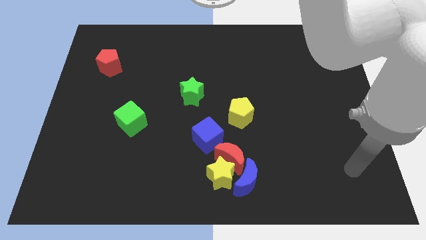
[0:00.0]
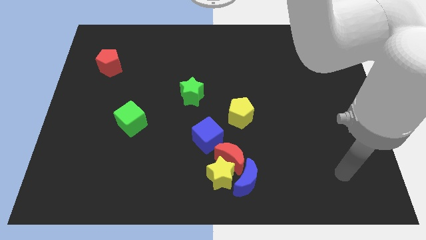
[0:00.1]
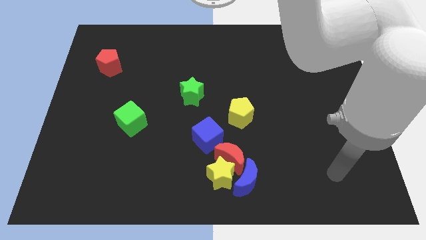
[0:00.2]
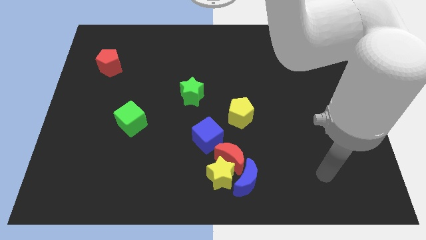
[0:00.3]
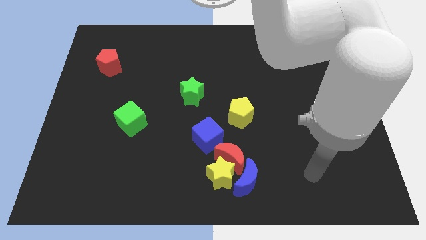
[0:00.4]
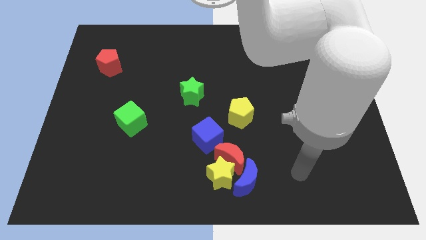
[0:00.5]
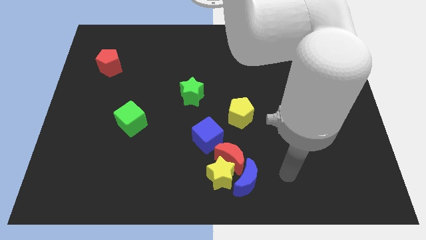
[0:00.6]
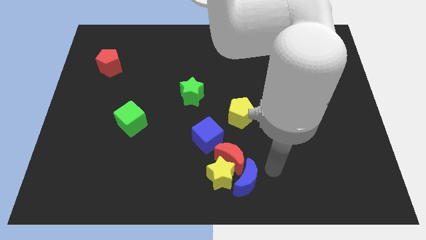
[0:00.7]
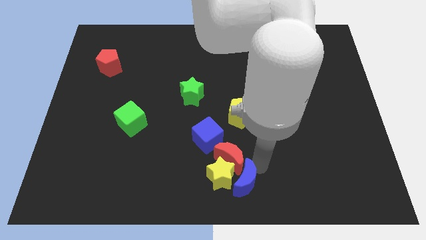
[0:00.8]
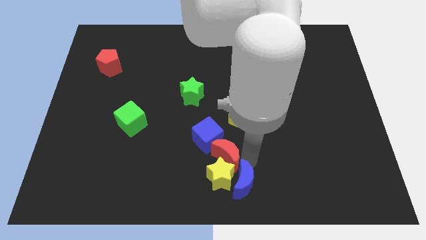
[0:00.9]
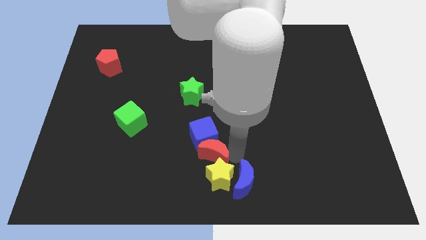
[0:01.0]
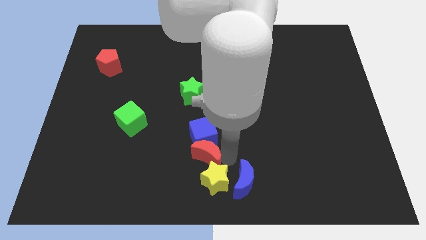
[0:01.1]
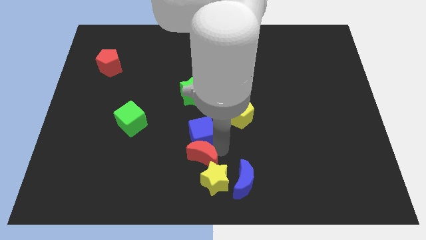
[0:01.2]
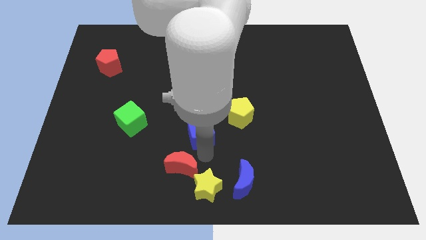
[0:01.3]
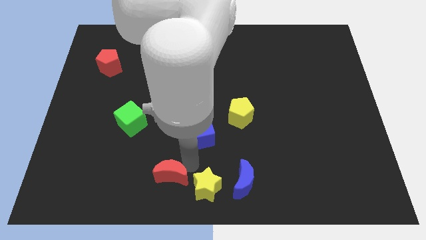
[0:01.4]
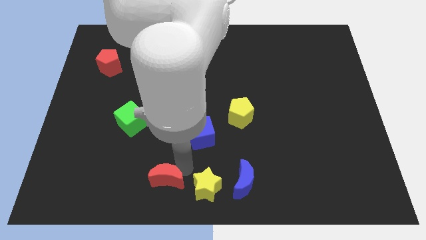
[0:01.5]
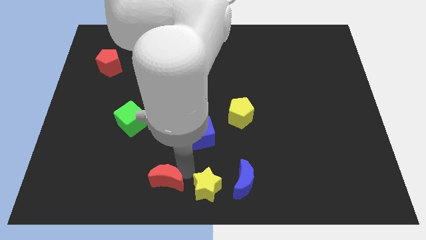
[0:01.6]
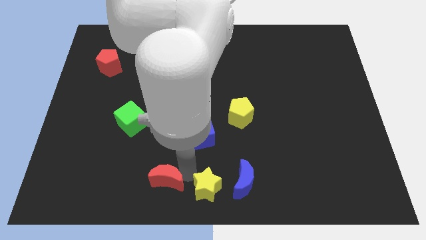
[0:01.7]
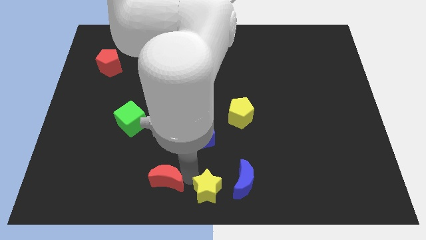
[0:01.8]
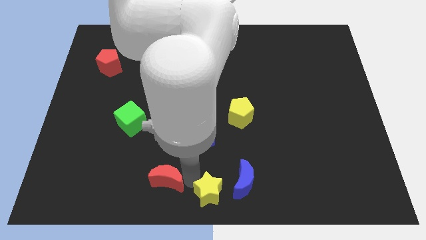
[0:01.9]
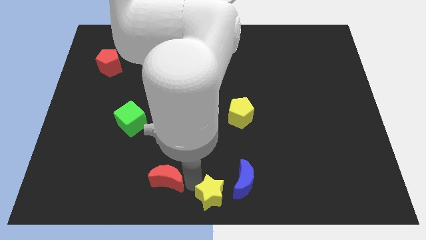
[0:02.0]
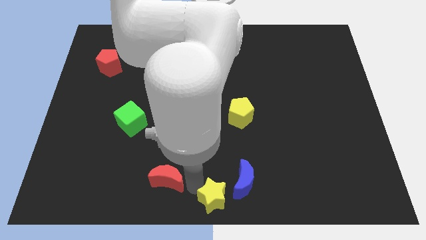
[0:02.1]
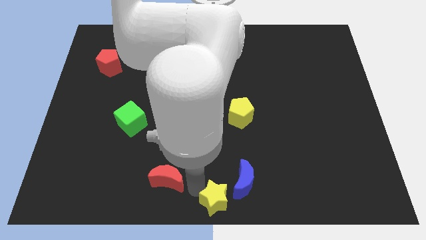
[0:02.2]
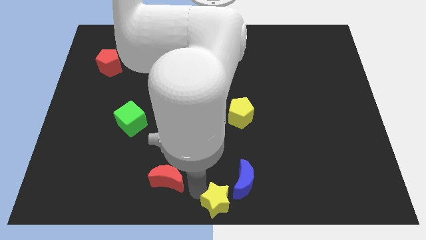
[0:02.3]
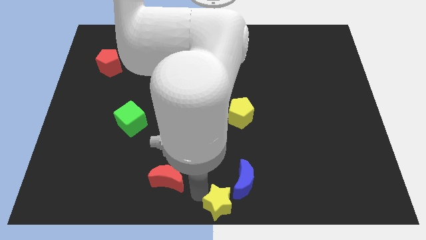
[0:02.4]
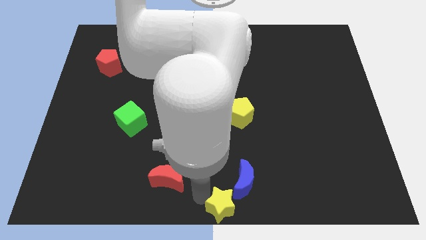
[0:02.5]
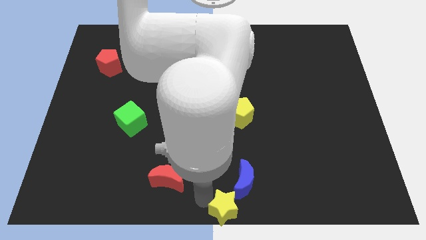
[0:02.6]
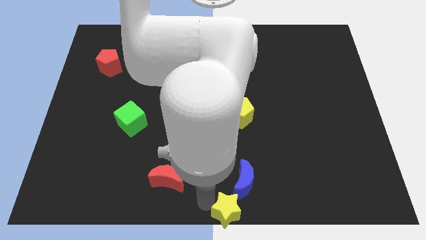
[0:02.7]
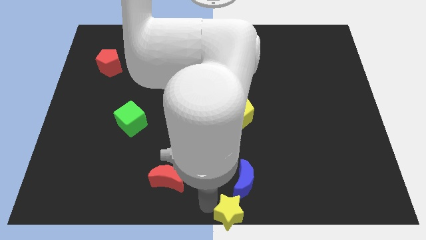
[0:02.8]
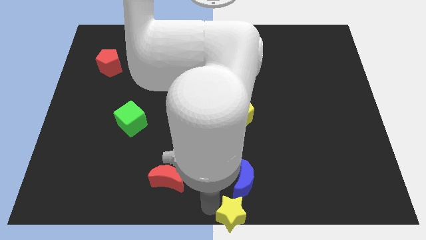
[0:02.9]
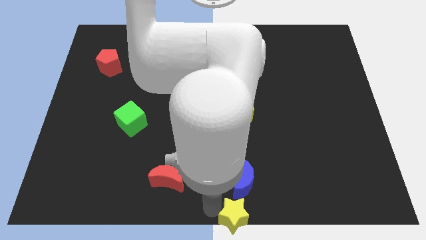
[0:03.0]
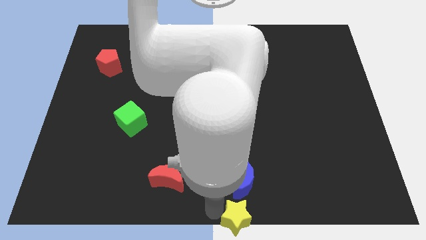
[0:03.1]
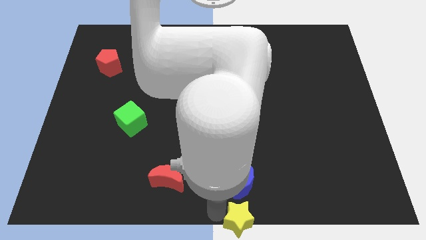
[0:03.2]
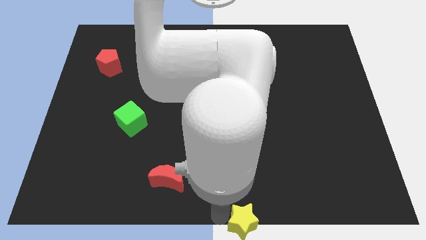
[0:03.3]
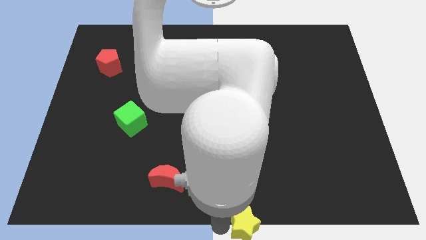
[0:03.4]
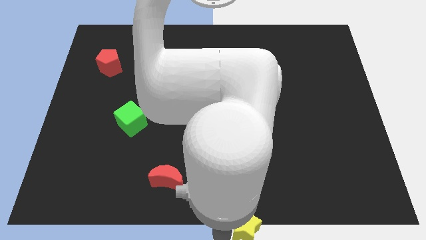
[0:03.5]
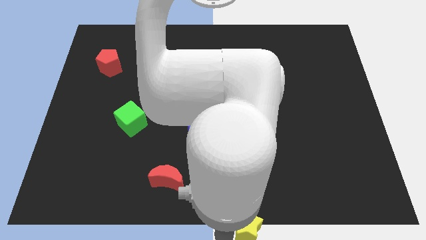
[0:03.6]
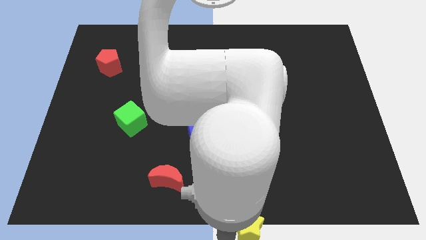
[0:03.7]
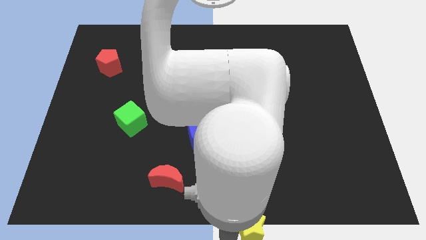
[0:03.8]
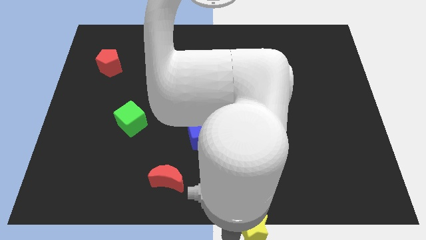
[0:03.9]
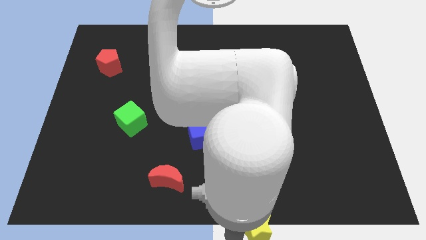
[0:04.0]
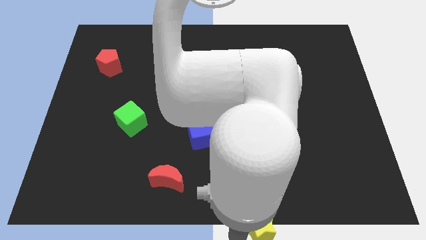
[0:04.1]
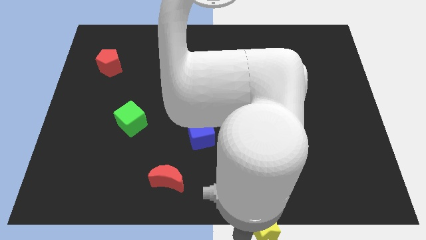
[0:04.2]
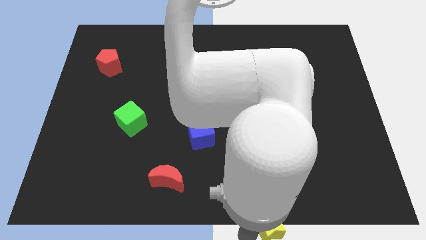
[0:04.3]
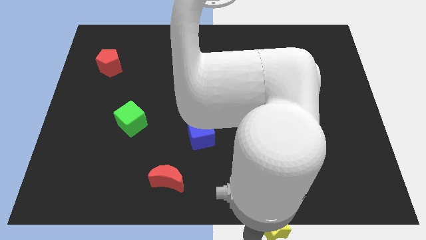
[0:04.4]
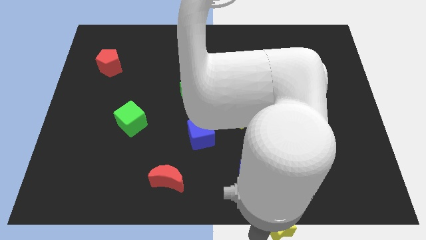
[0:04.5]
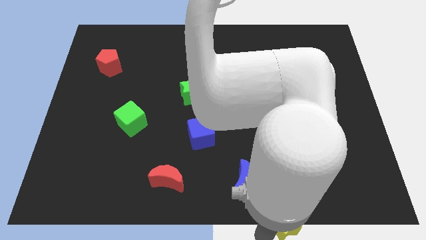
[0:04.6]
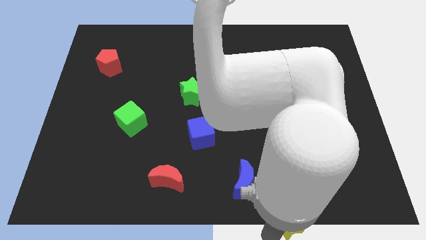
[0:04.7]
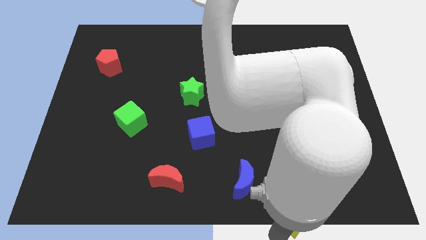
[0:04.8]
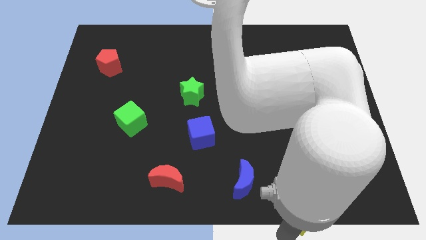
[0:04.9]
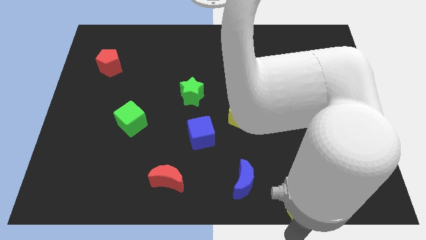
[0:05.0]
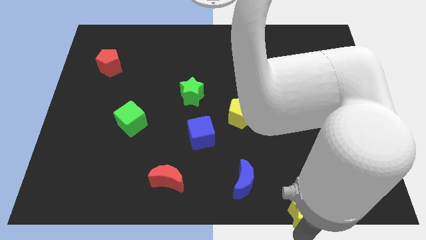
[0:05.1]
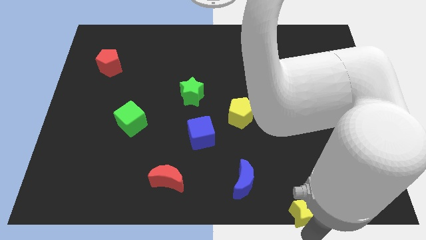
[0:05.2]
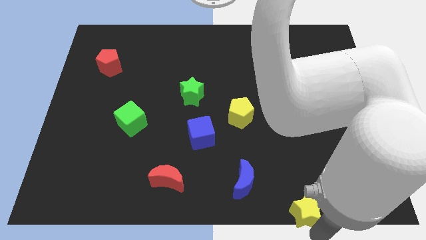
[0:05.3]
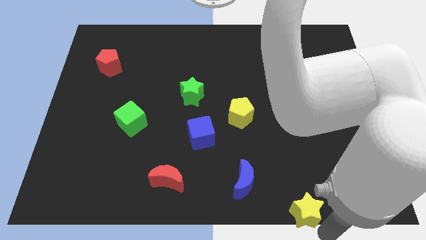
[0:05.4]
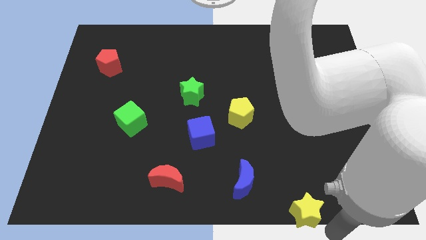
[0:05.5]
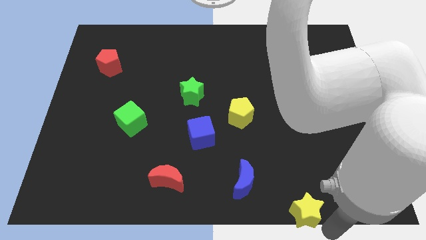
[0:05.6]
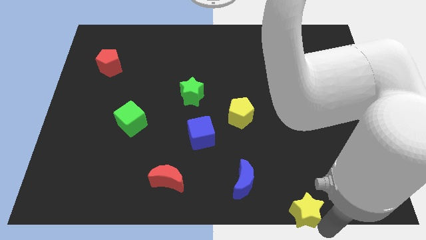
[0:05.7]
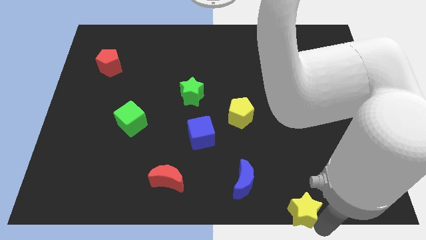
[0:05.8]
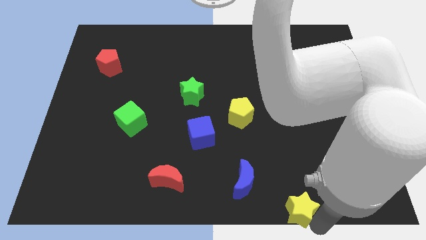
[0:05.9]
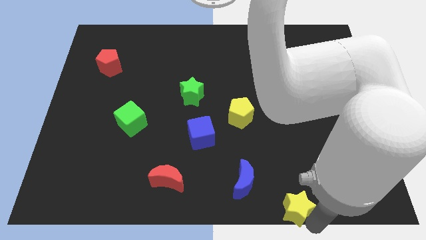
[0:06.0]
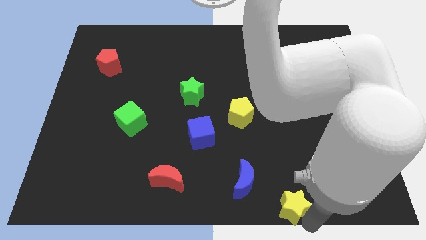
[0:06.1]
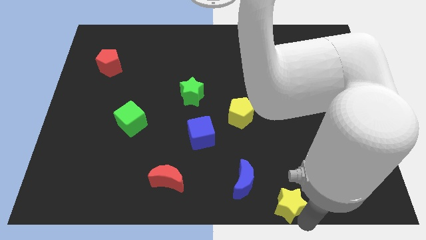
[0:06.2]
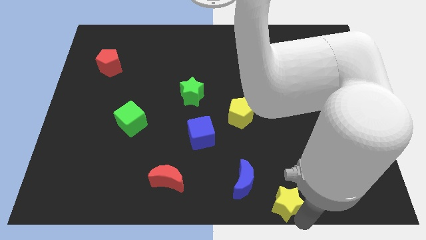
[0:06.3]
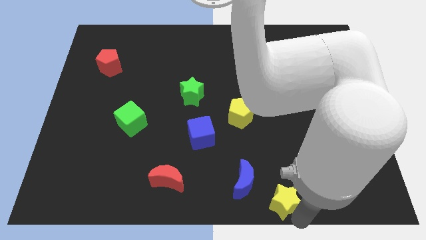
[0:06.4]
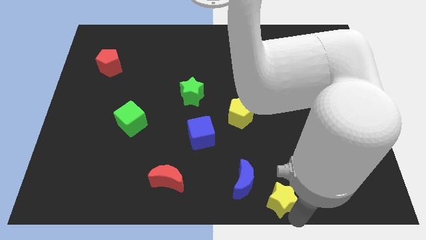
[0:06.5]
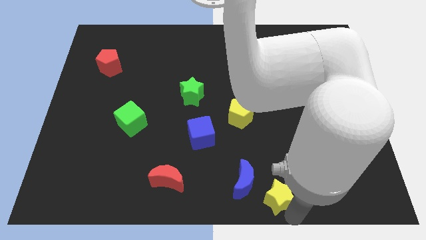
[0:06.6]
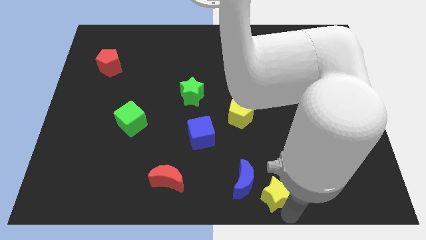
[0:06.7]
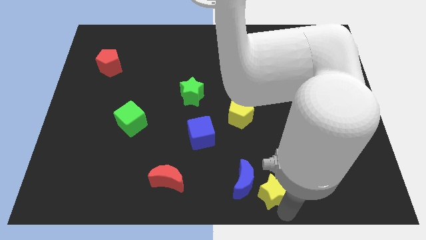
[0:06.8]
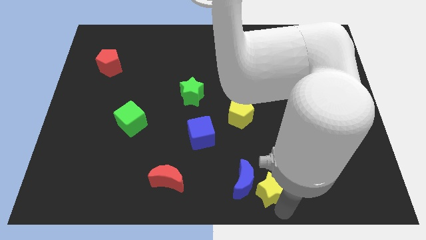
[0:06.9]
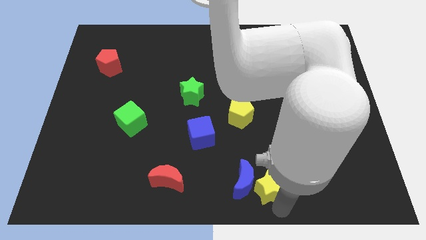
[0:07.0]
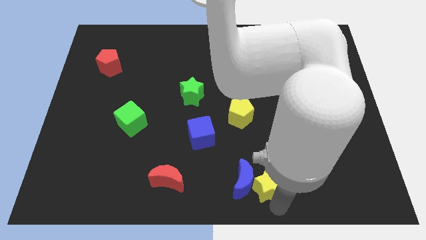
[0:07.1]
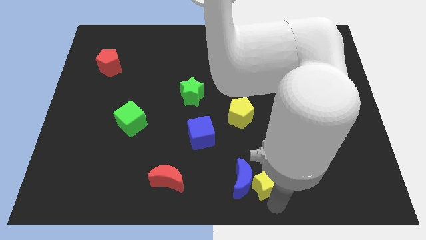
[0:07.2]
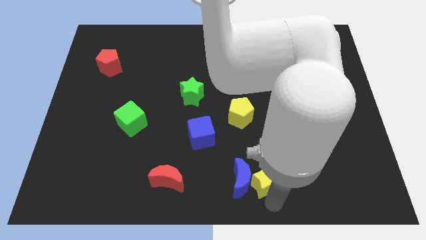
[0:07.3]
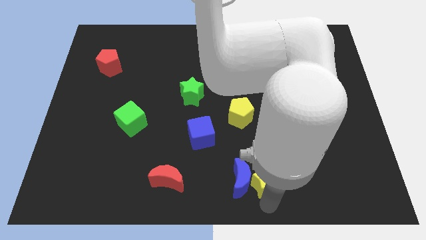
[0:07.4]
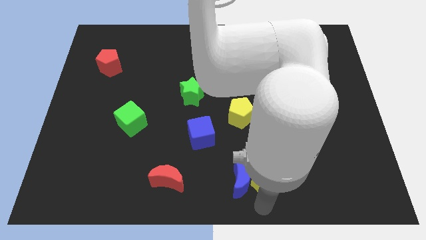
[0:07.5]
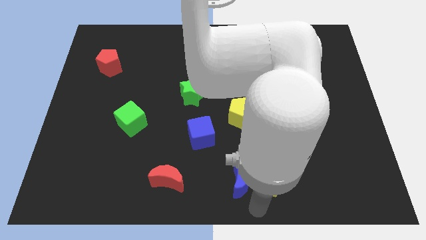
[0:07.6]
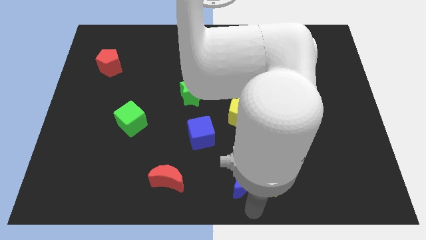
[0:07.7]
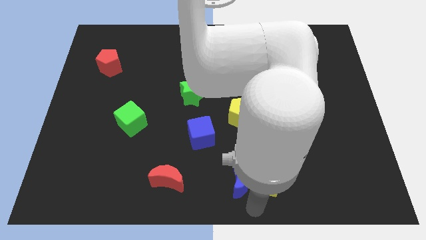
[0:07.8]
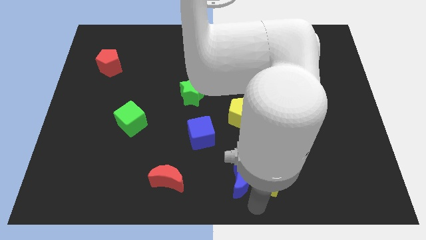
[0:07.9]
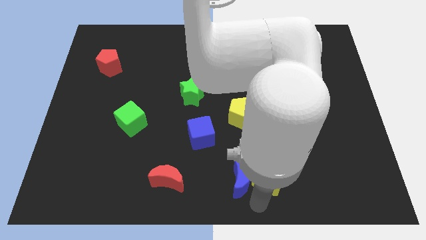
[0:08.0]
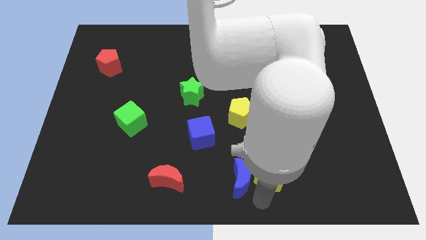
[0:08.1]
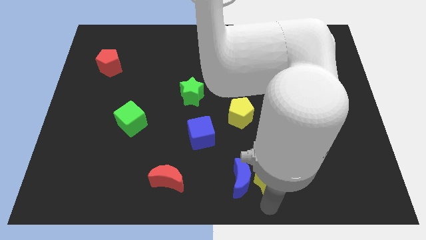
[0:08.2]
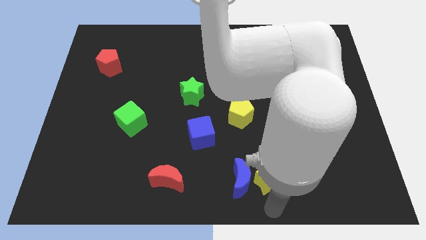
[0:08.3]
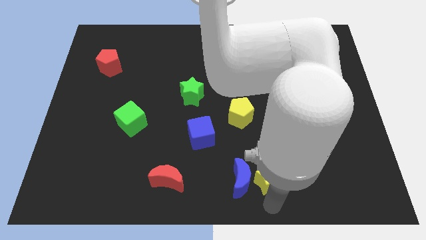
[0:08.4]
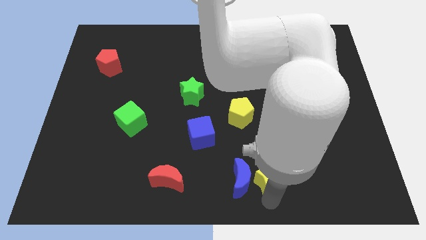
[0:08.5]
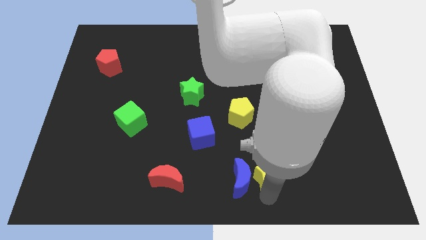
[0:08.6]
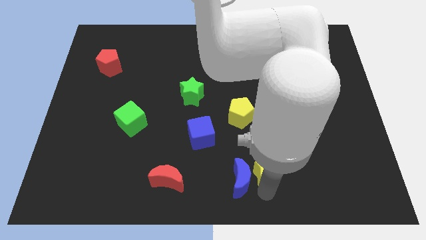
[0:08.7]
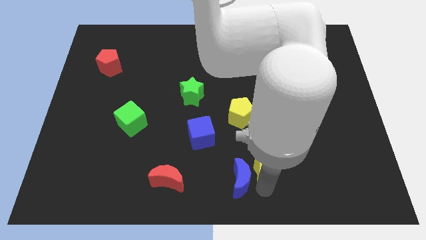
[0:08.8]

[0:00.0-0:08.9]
push the yellow star a bit up and then right
